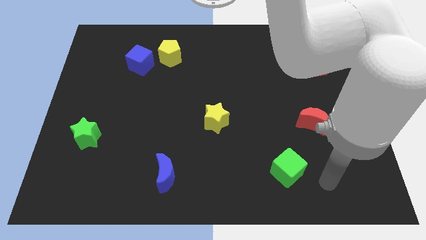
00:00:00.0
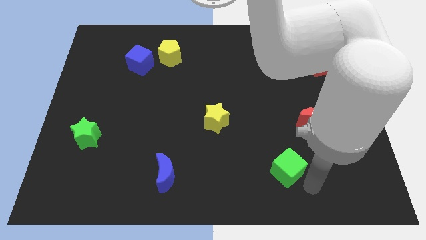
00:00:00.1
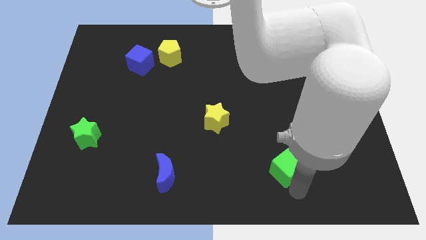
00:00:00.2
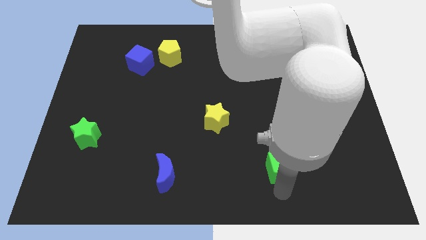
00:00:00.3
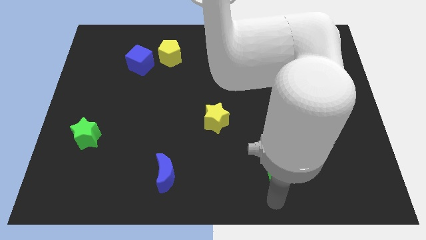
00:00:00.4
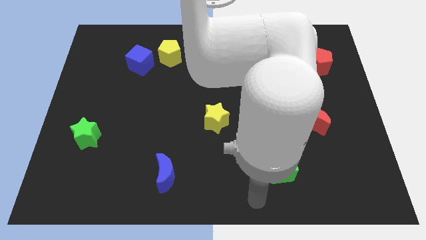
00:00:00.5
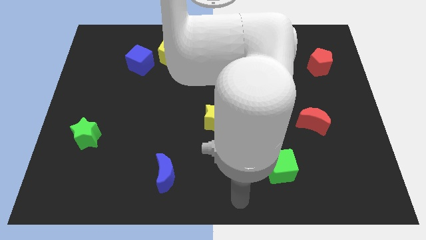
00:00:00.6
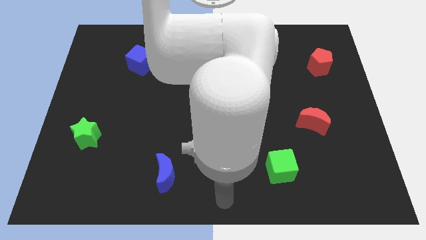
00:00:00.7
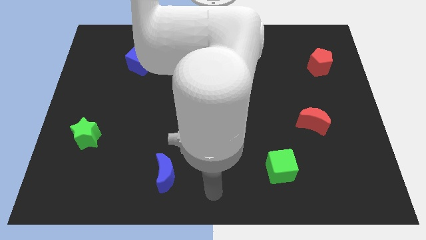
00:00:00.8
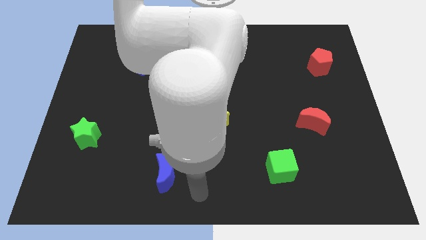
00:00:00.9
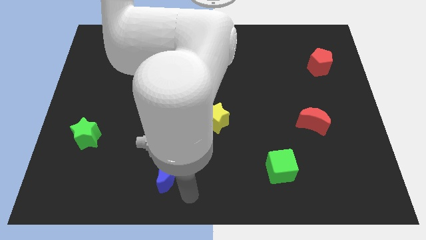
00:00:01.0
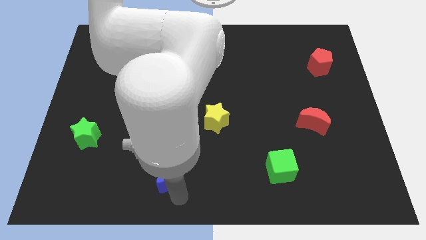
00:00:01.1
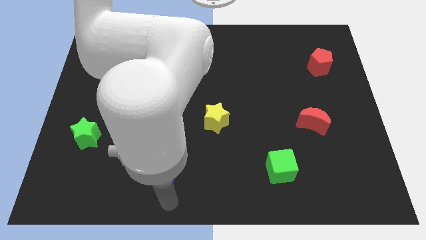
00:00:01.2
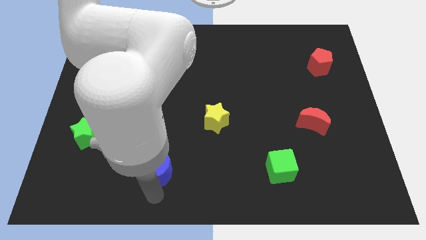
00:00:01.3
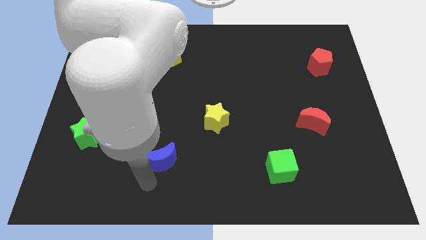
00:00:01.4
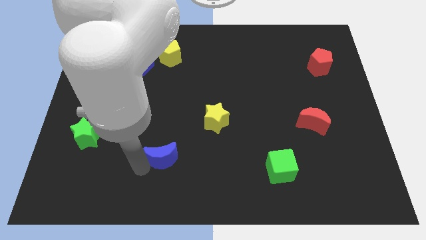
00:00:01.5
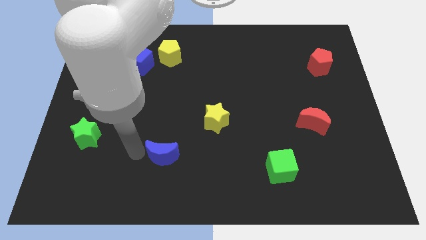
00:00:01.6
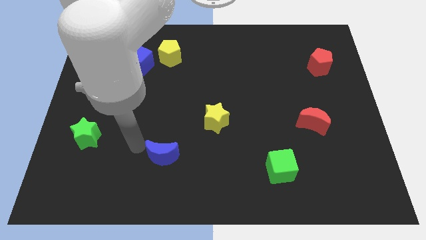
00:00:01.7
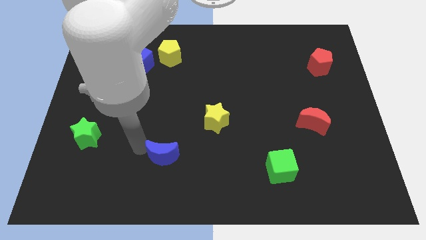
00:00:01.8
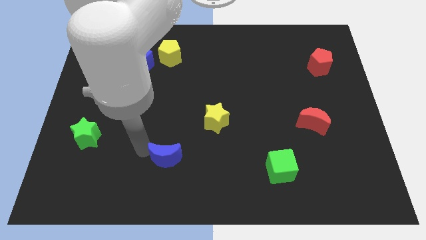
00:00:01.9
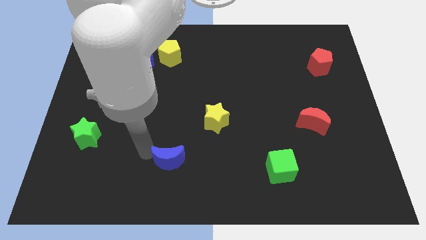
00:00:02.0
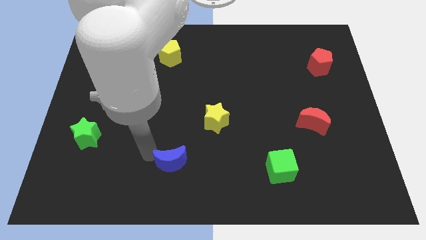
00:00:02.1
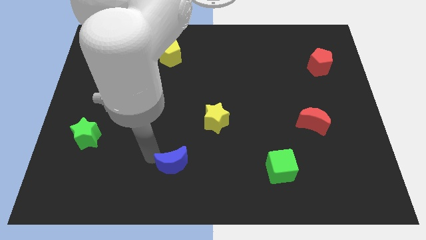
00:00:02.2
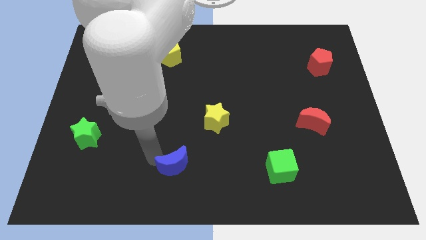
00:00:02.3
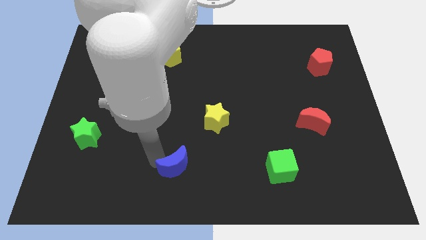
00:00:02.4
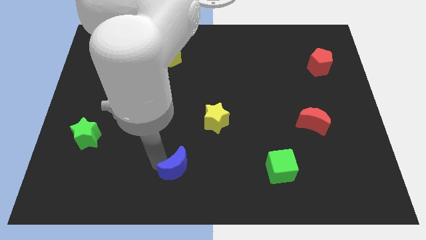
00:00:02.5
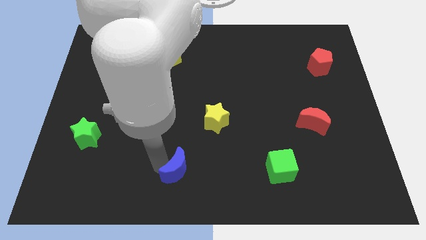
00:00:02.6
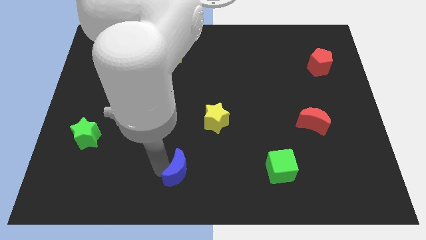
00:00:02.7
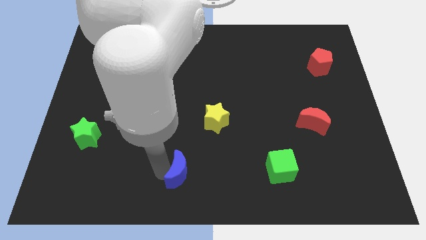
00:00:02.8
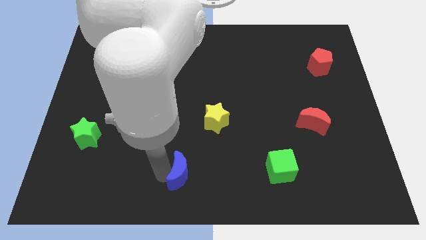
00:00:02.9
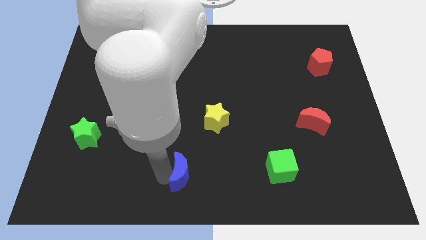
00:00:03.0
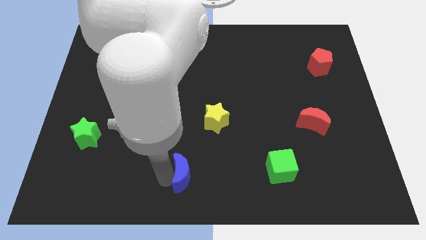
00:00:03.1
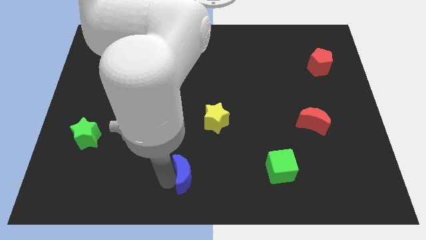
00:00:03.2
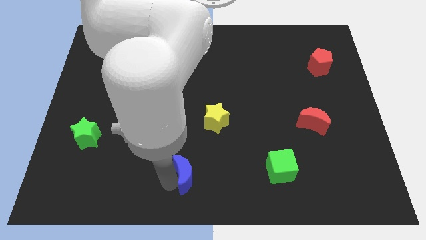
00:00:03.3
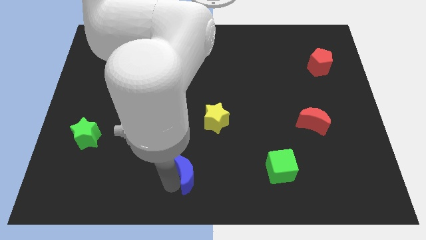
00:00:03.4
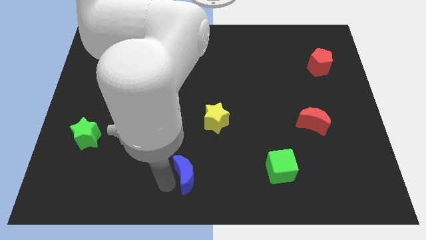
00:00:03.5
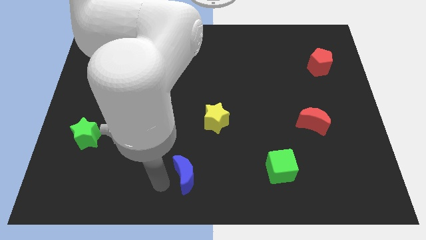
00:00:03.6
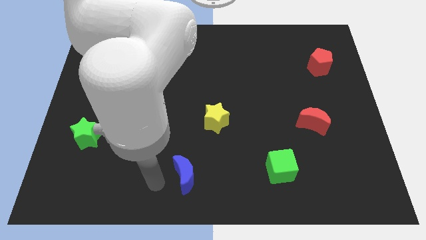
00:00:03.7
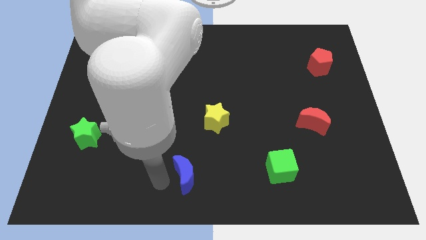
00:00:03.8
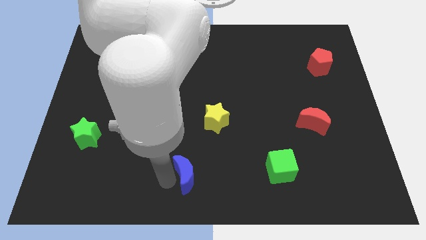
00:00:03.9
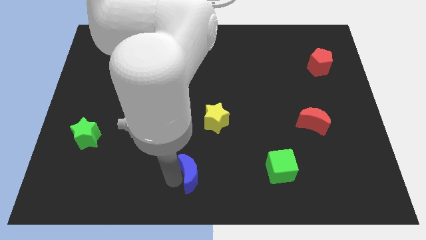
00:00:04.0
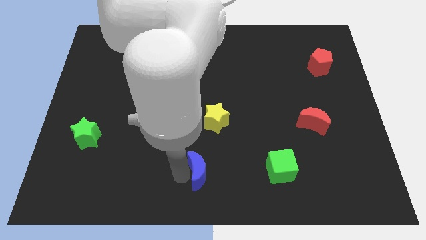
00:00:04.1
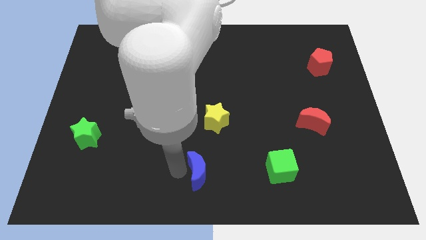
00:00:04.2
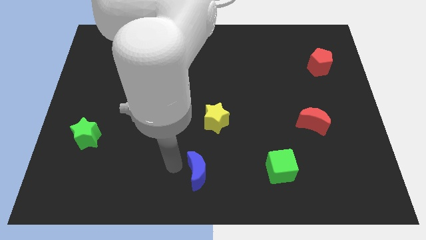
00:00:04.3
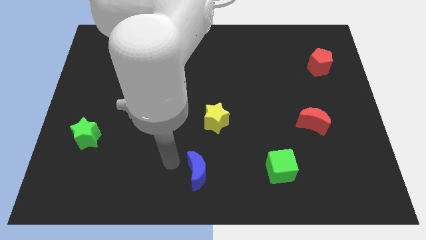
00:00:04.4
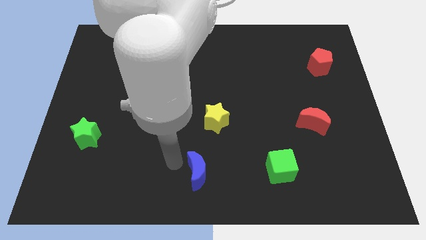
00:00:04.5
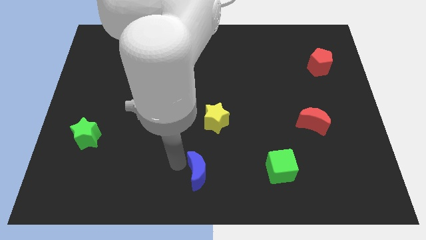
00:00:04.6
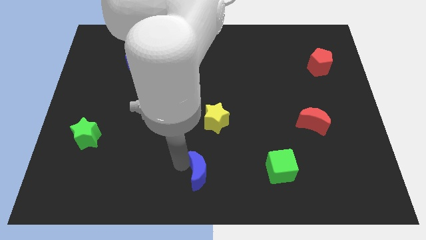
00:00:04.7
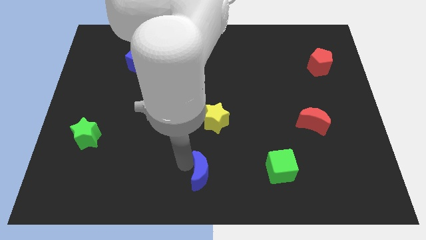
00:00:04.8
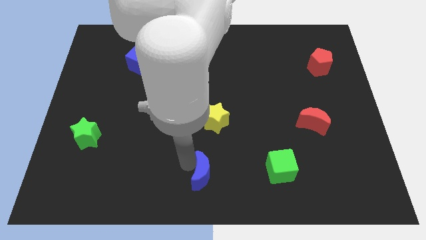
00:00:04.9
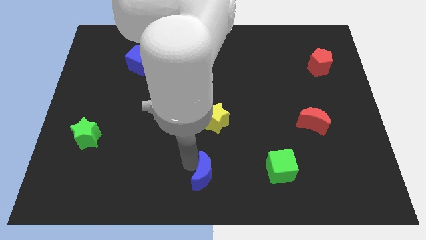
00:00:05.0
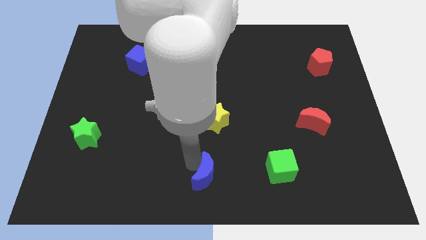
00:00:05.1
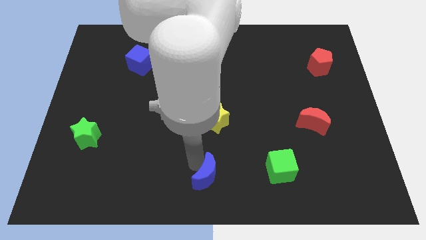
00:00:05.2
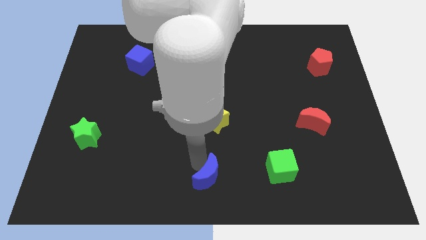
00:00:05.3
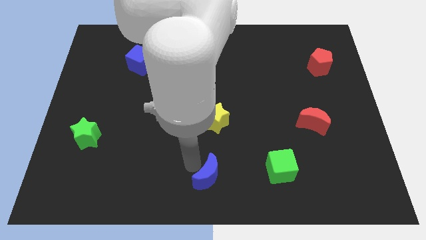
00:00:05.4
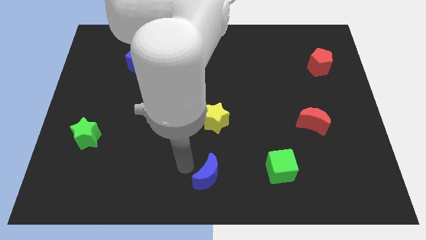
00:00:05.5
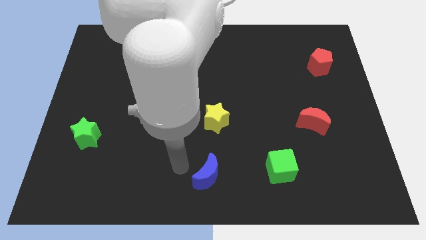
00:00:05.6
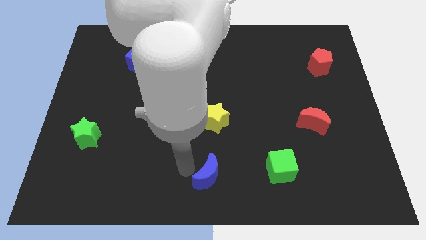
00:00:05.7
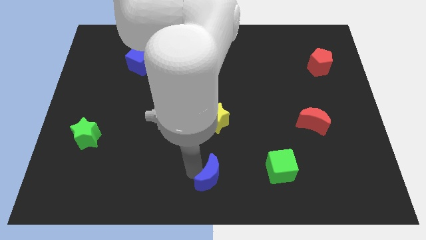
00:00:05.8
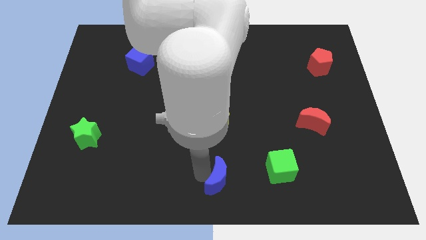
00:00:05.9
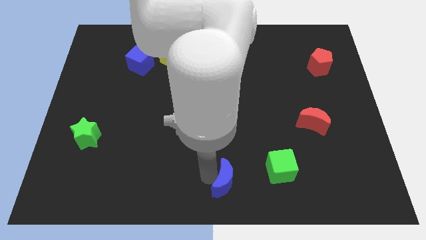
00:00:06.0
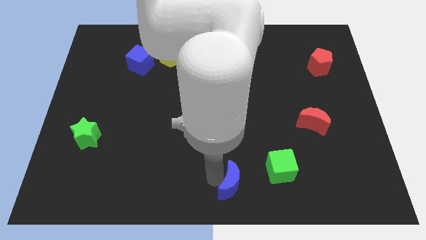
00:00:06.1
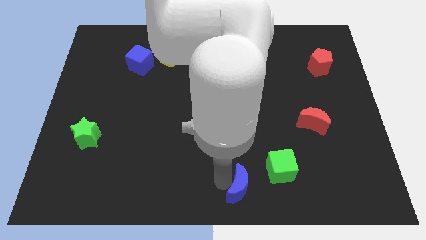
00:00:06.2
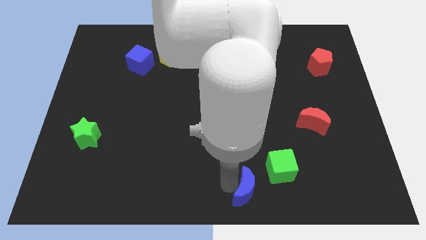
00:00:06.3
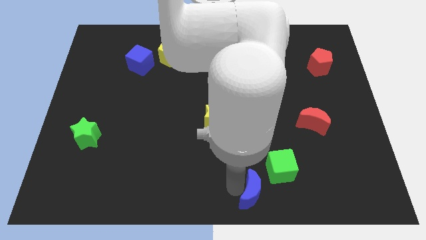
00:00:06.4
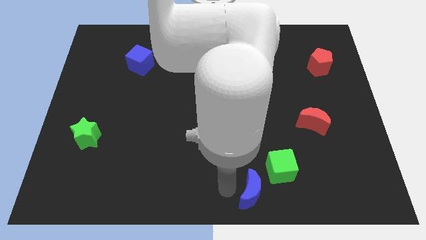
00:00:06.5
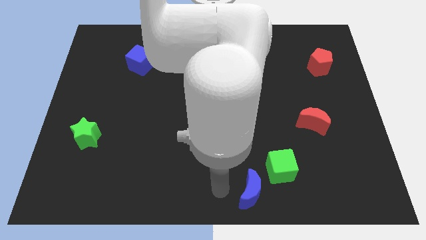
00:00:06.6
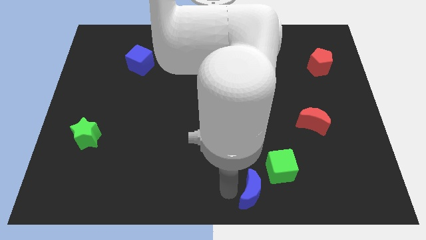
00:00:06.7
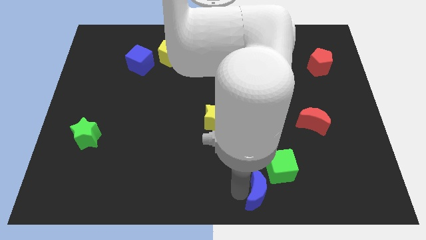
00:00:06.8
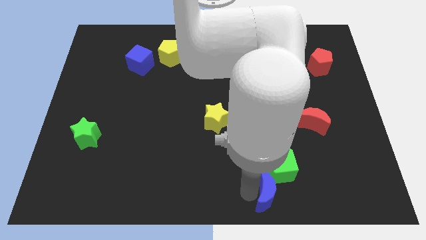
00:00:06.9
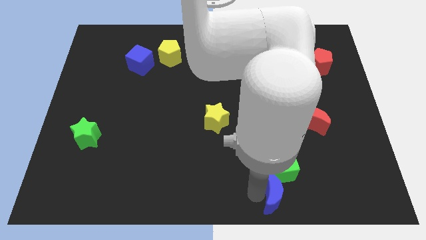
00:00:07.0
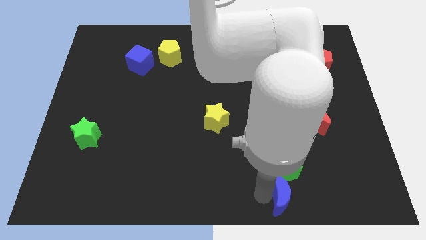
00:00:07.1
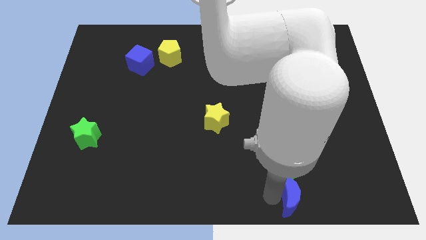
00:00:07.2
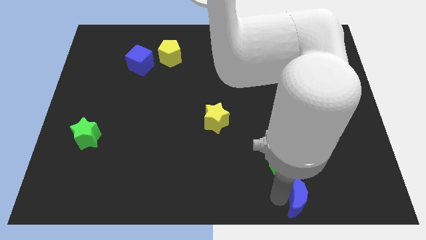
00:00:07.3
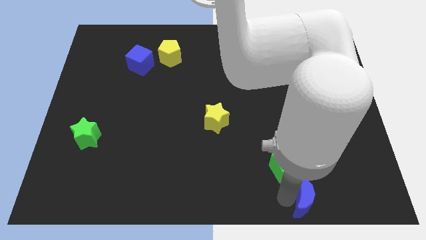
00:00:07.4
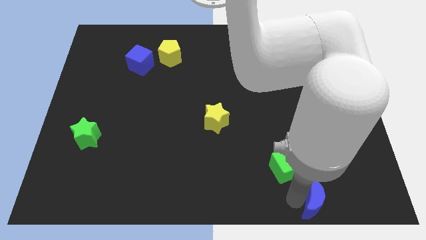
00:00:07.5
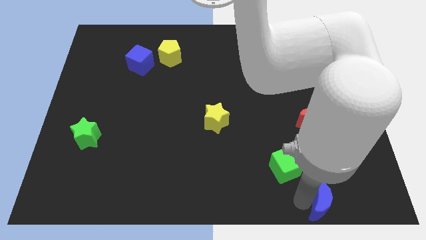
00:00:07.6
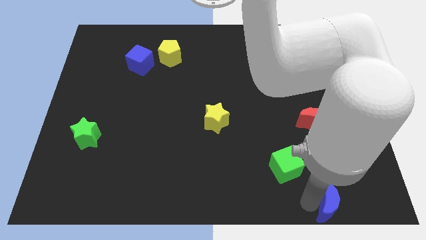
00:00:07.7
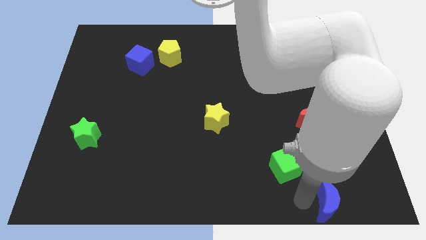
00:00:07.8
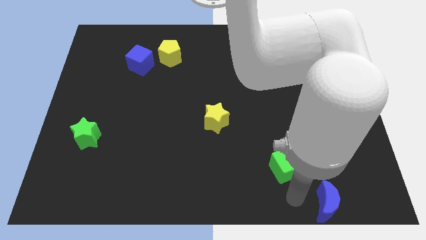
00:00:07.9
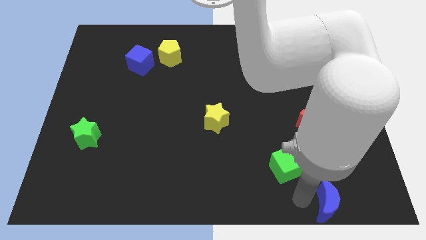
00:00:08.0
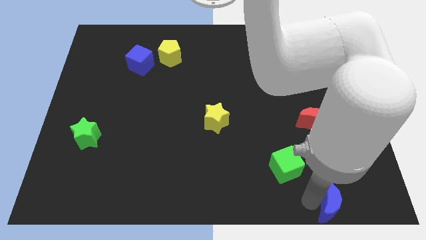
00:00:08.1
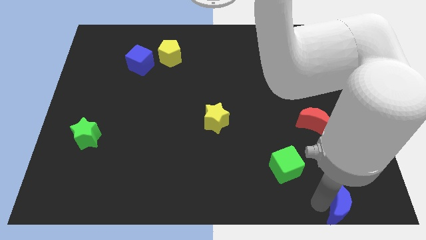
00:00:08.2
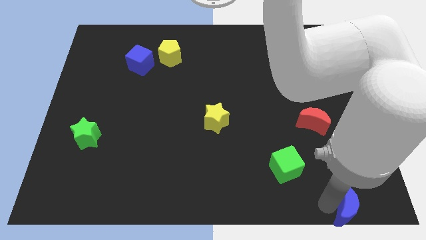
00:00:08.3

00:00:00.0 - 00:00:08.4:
slide the blue moon to the bottom right corner
